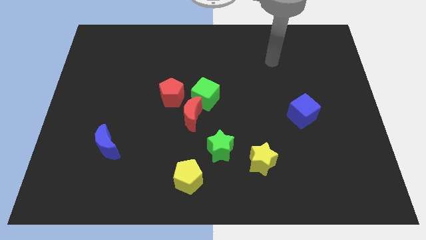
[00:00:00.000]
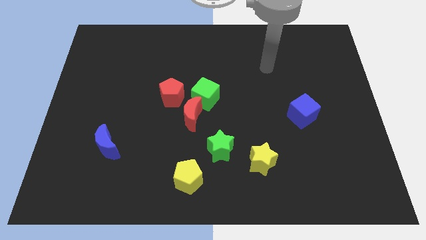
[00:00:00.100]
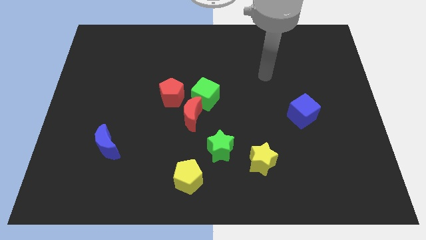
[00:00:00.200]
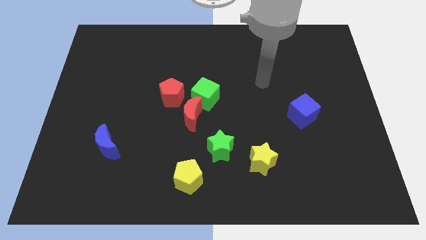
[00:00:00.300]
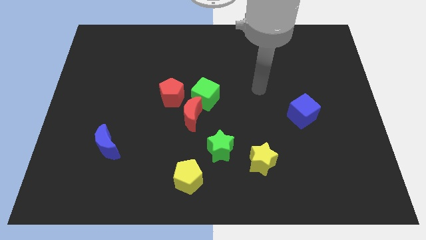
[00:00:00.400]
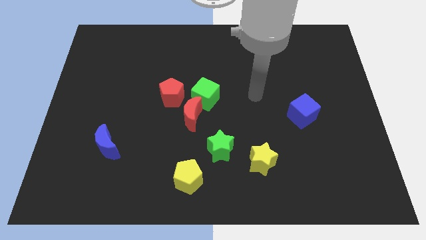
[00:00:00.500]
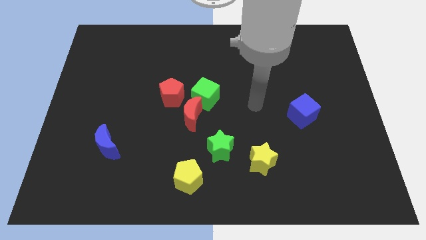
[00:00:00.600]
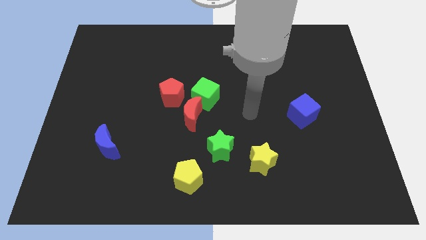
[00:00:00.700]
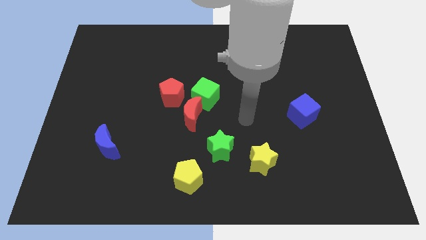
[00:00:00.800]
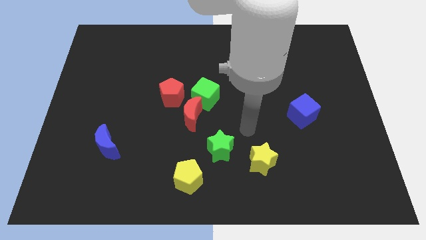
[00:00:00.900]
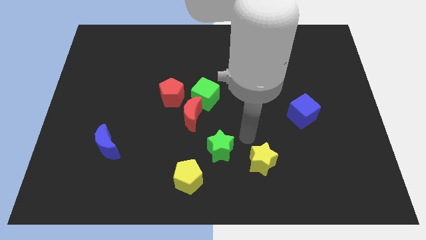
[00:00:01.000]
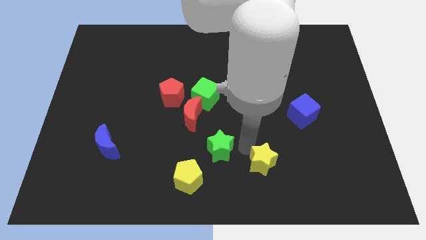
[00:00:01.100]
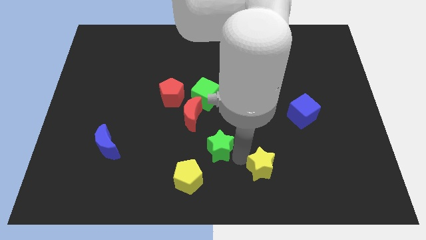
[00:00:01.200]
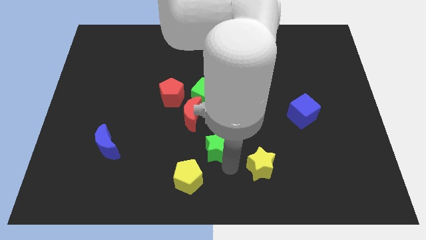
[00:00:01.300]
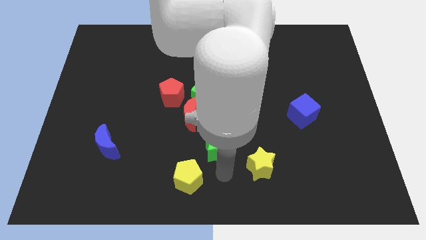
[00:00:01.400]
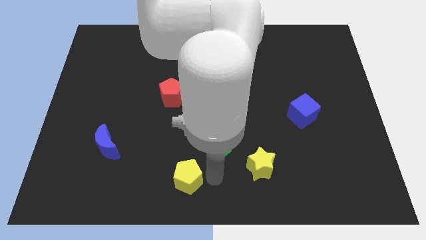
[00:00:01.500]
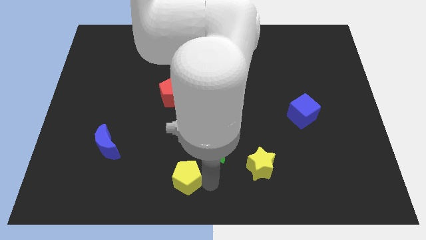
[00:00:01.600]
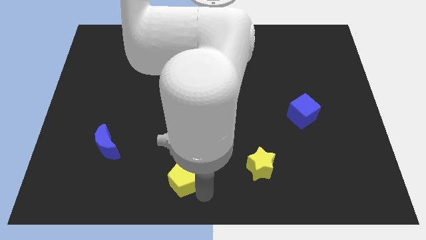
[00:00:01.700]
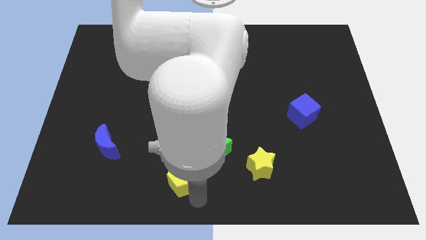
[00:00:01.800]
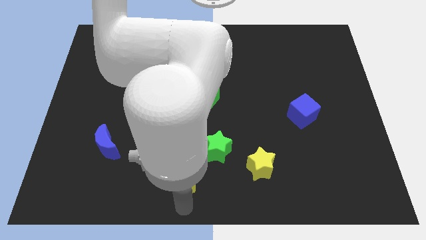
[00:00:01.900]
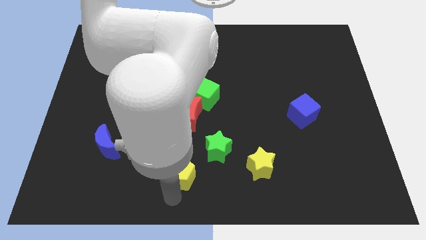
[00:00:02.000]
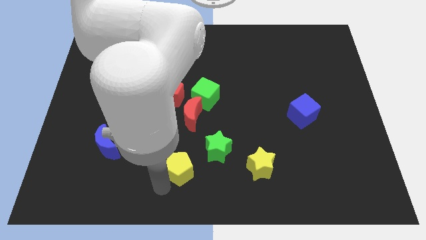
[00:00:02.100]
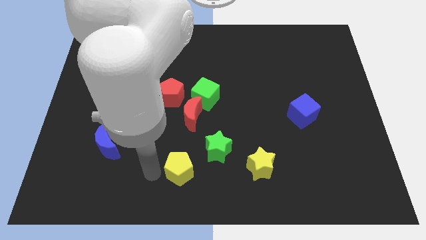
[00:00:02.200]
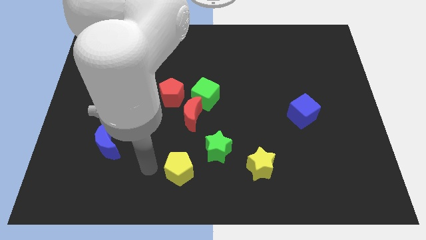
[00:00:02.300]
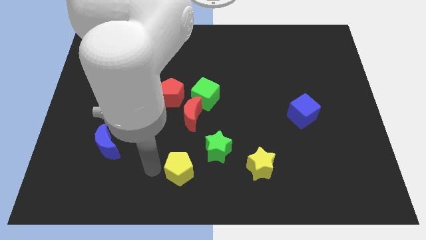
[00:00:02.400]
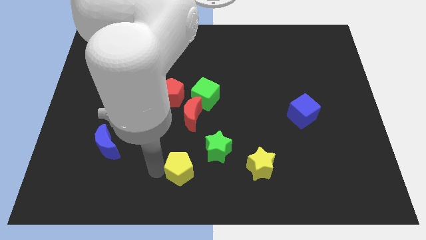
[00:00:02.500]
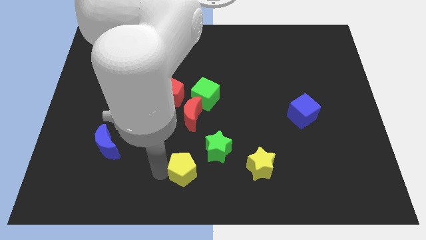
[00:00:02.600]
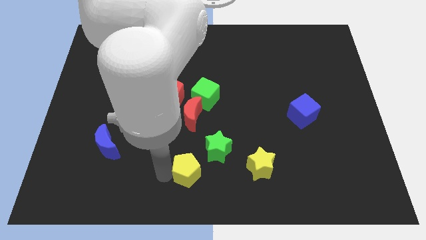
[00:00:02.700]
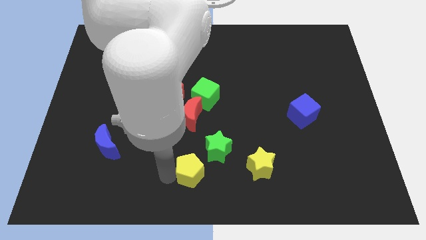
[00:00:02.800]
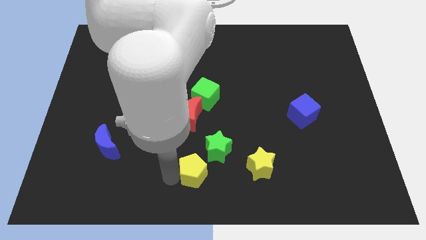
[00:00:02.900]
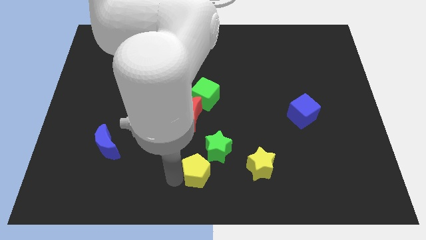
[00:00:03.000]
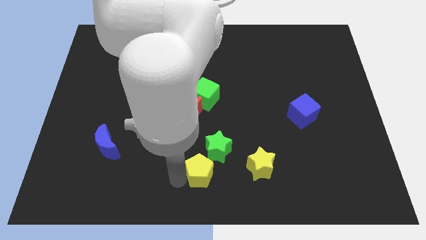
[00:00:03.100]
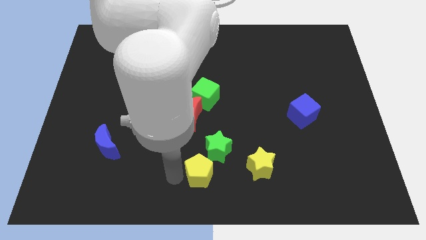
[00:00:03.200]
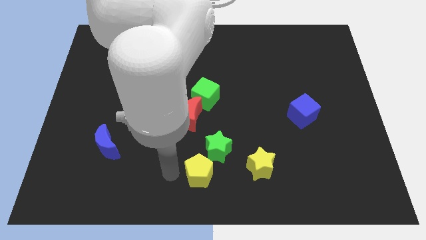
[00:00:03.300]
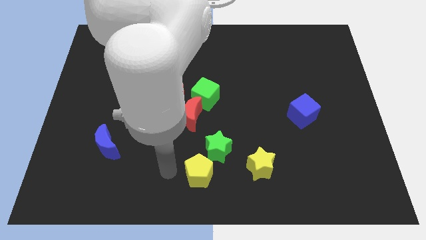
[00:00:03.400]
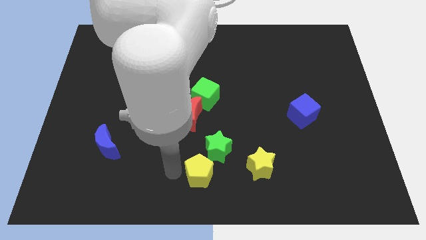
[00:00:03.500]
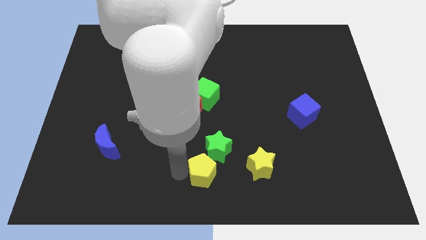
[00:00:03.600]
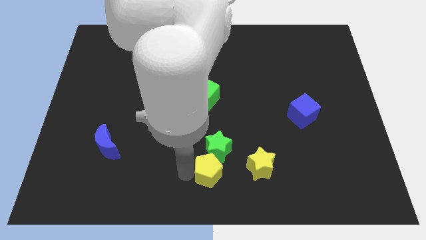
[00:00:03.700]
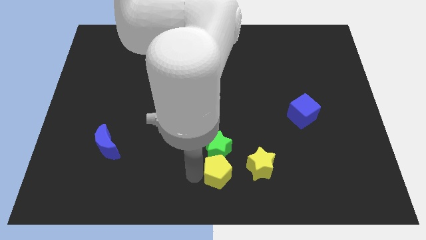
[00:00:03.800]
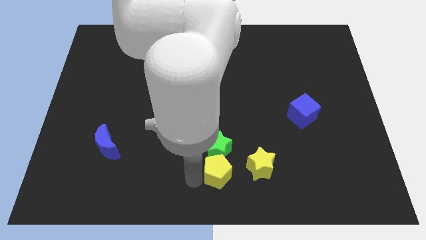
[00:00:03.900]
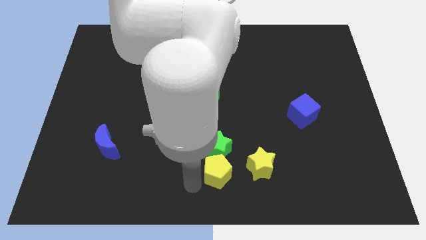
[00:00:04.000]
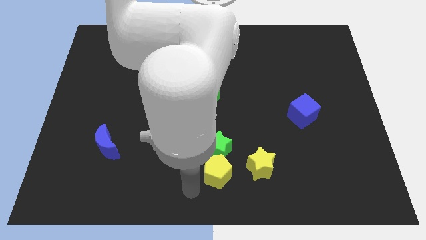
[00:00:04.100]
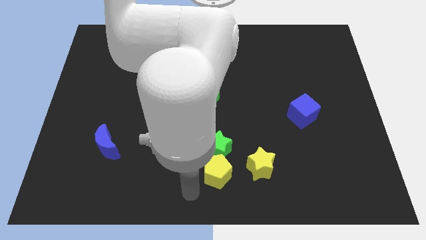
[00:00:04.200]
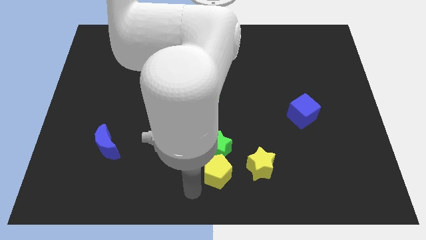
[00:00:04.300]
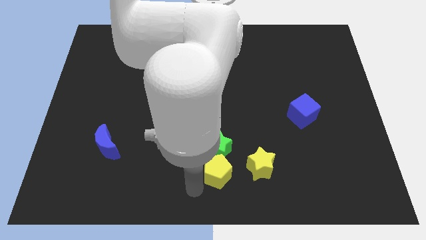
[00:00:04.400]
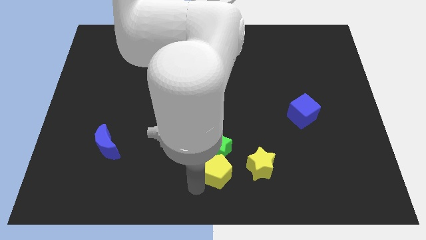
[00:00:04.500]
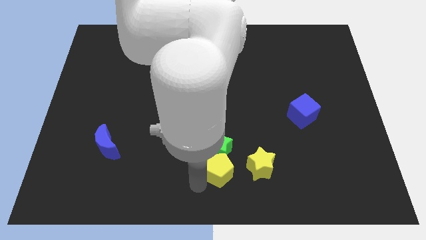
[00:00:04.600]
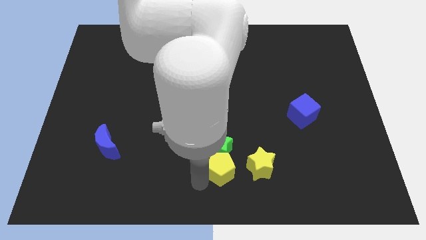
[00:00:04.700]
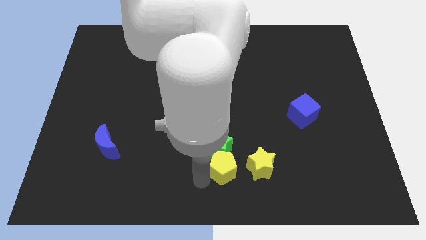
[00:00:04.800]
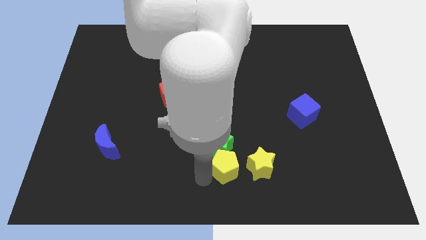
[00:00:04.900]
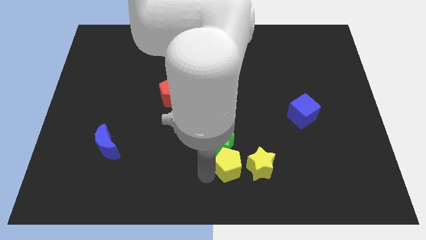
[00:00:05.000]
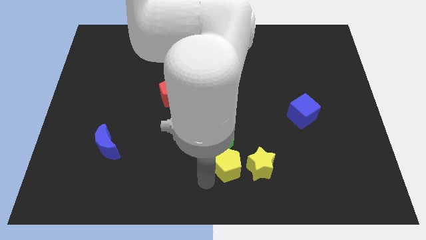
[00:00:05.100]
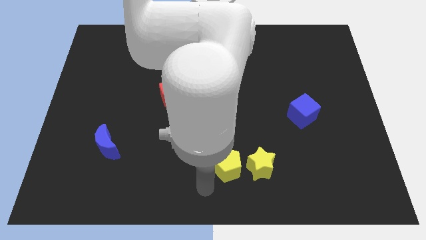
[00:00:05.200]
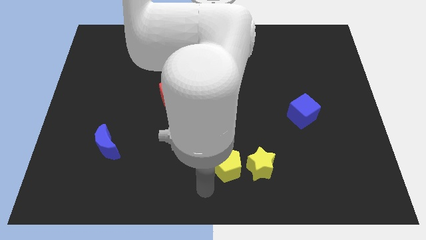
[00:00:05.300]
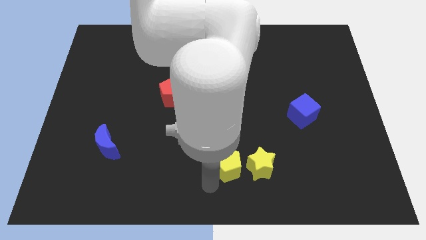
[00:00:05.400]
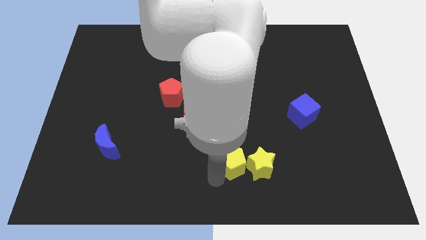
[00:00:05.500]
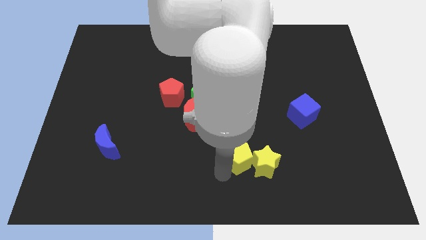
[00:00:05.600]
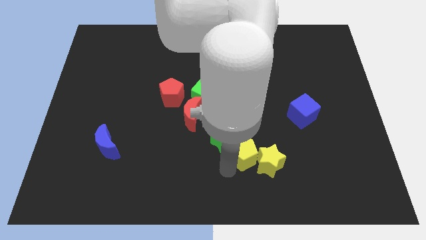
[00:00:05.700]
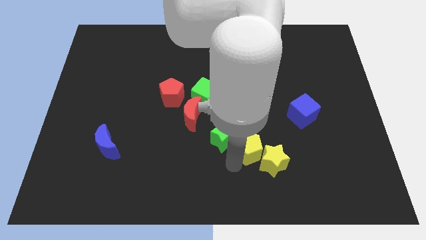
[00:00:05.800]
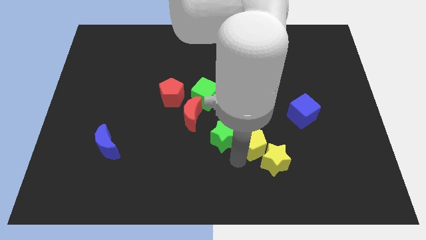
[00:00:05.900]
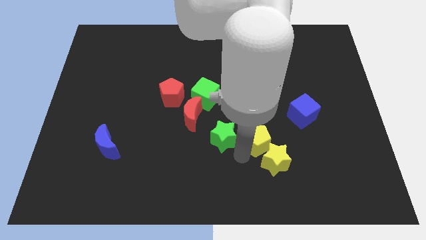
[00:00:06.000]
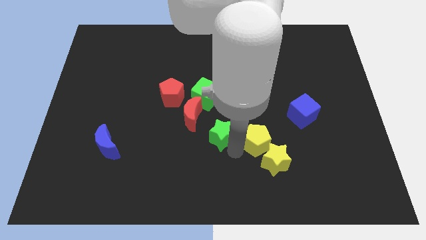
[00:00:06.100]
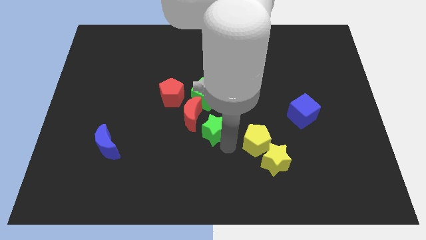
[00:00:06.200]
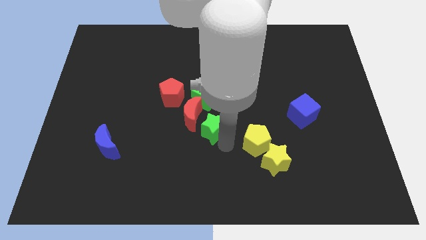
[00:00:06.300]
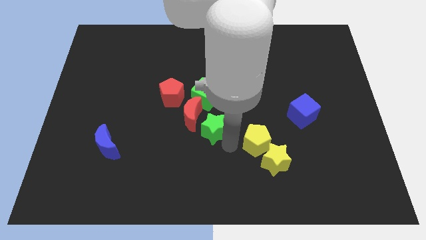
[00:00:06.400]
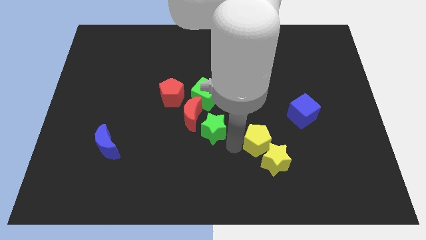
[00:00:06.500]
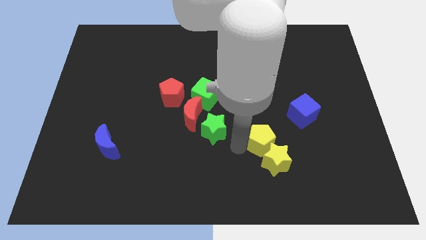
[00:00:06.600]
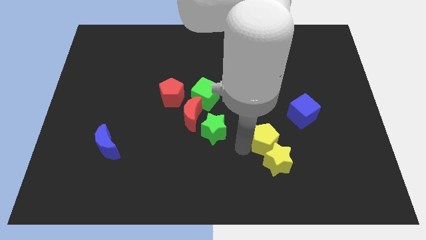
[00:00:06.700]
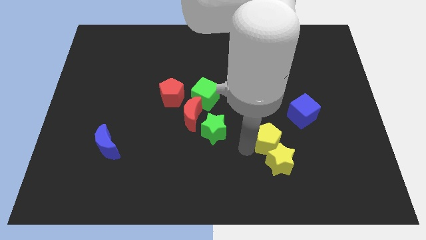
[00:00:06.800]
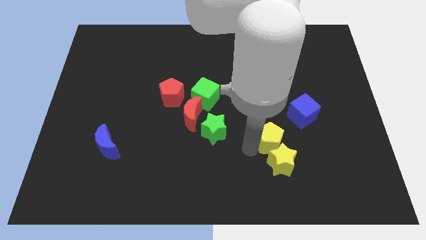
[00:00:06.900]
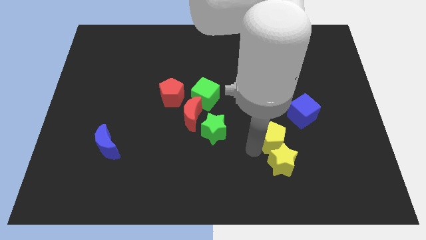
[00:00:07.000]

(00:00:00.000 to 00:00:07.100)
put the yellow pentagon diagonally up and to the right of the yellow star

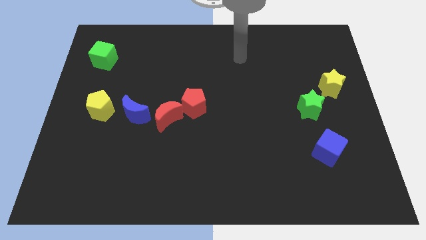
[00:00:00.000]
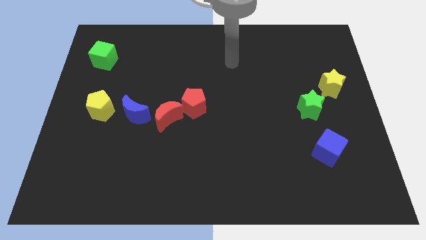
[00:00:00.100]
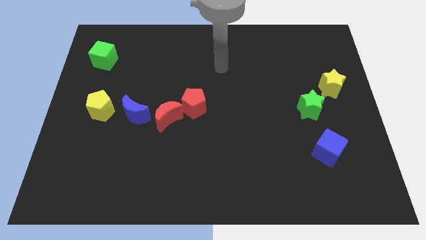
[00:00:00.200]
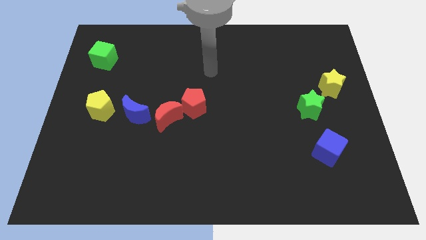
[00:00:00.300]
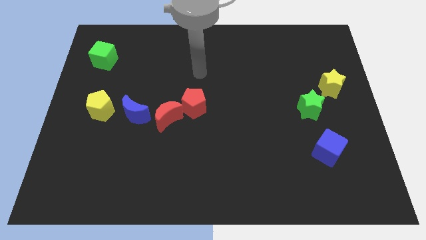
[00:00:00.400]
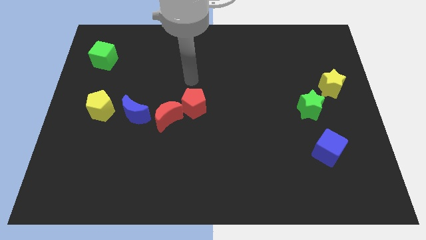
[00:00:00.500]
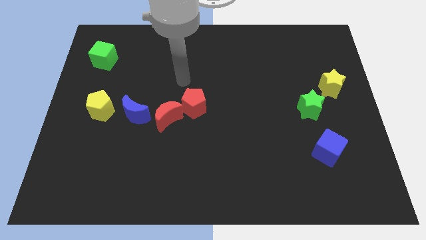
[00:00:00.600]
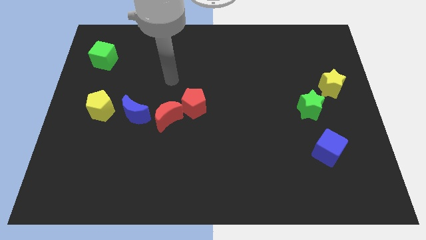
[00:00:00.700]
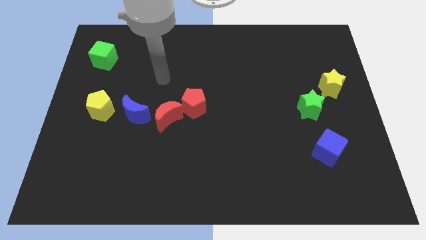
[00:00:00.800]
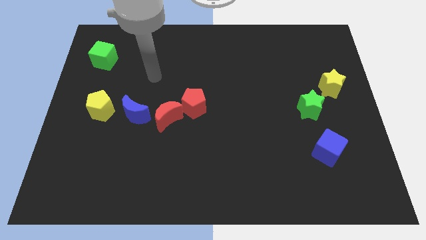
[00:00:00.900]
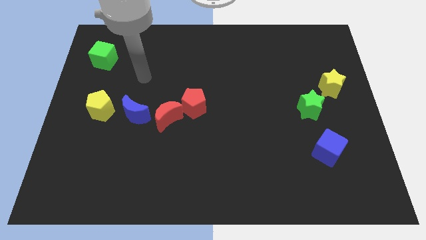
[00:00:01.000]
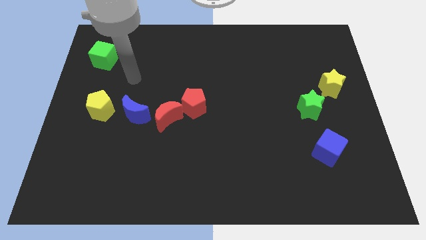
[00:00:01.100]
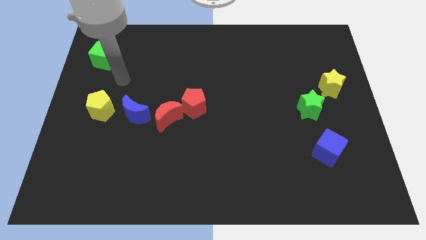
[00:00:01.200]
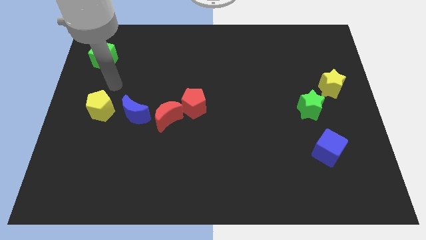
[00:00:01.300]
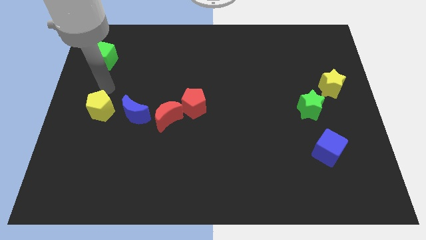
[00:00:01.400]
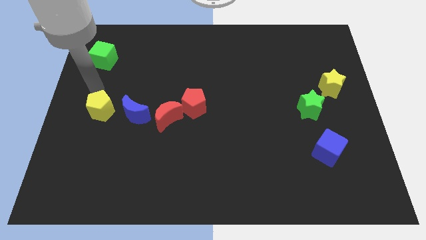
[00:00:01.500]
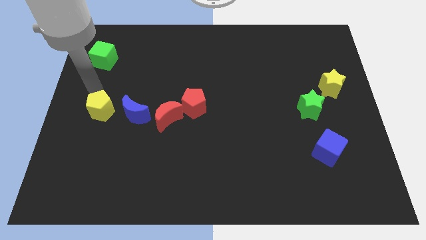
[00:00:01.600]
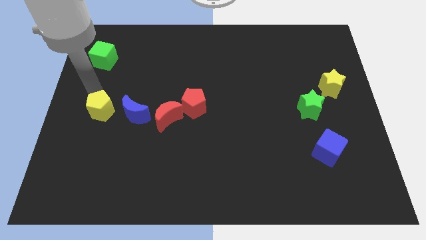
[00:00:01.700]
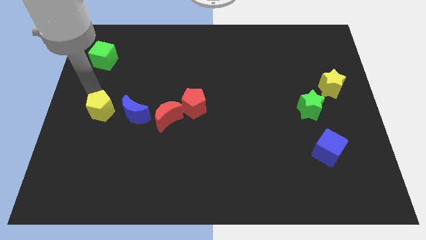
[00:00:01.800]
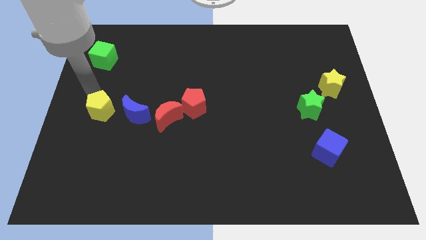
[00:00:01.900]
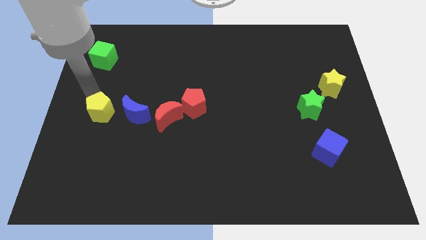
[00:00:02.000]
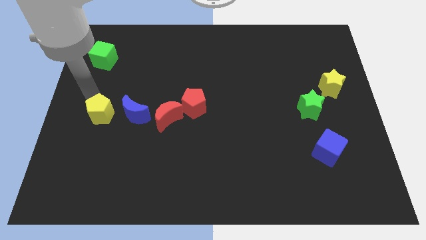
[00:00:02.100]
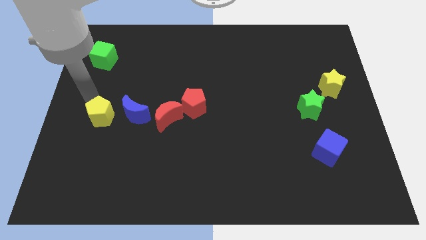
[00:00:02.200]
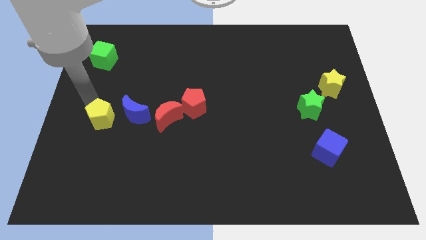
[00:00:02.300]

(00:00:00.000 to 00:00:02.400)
move the yellow pentagon to the bottom left of the blue moon
